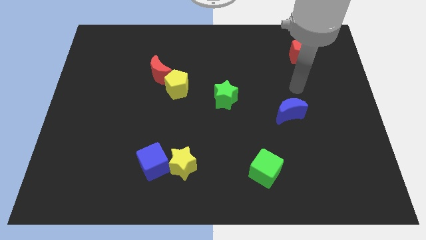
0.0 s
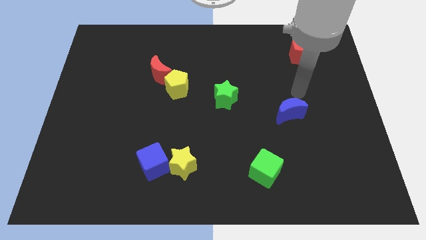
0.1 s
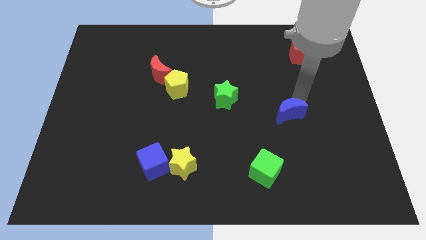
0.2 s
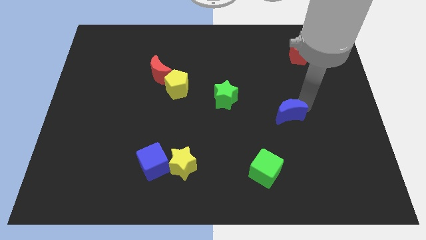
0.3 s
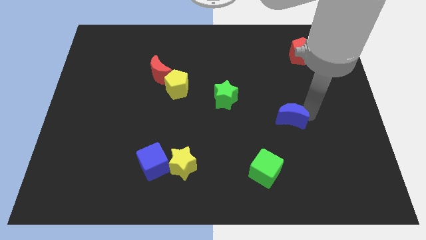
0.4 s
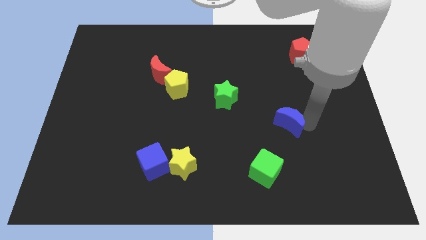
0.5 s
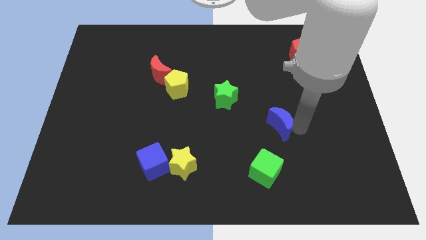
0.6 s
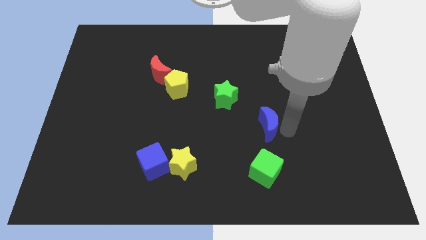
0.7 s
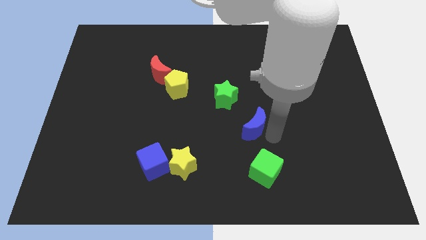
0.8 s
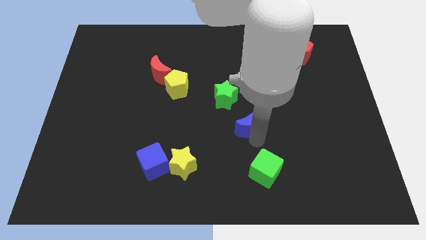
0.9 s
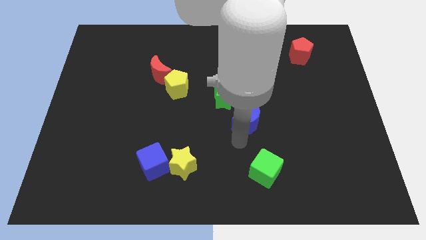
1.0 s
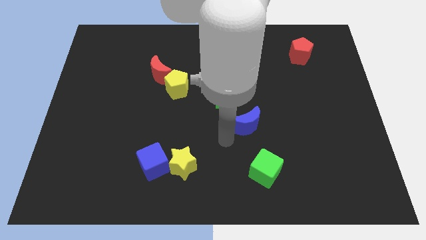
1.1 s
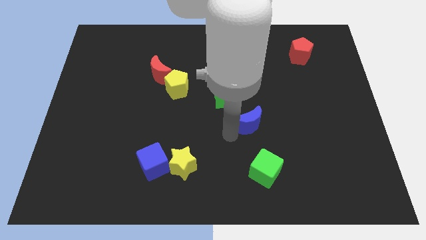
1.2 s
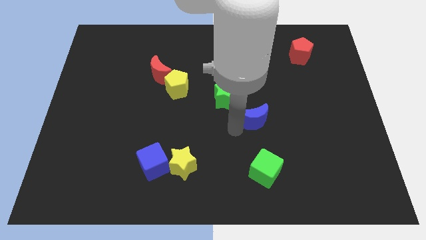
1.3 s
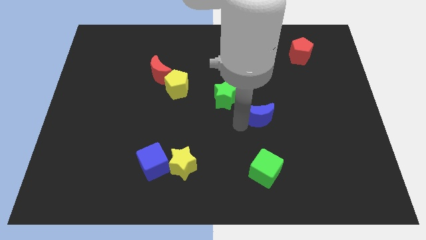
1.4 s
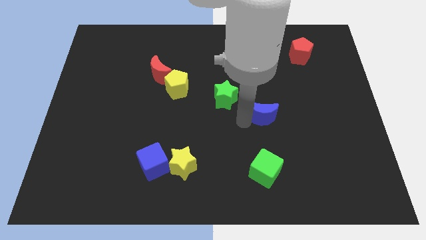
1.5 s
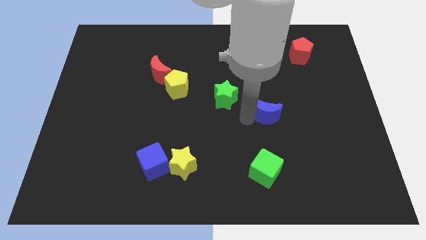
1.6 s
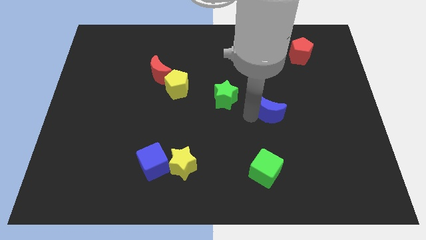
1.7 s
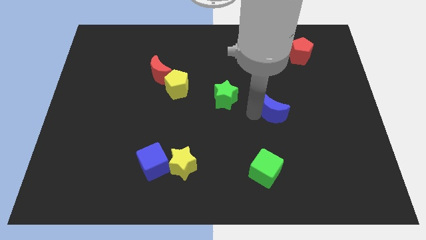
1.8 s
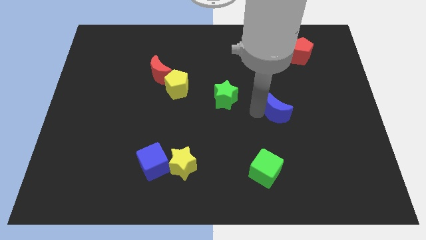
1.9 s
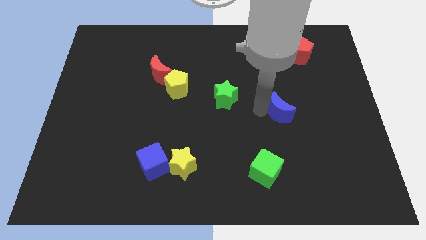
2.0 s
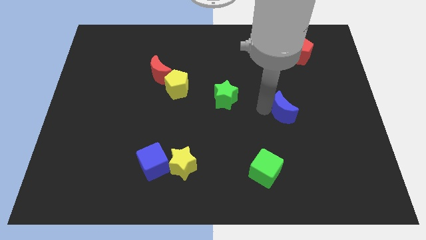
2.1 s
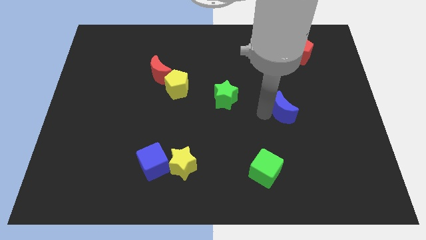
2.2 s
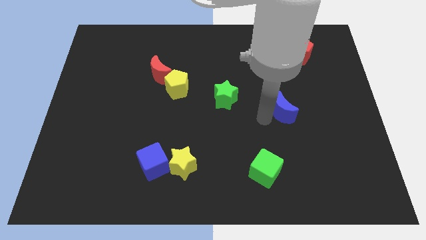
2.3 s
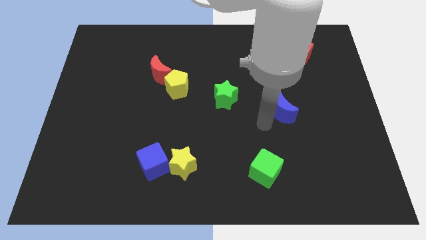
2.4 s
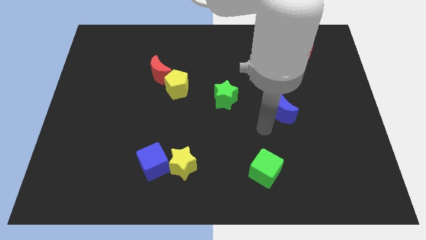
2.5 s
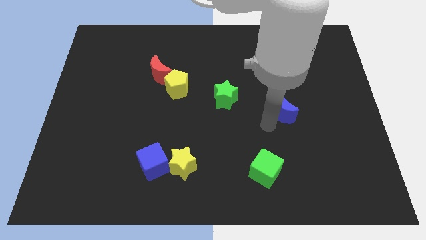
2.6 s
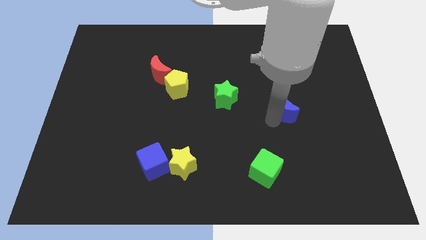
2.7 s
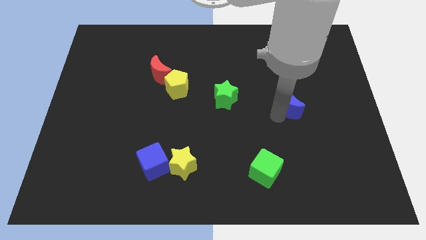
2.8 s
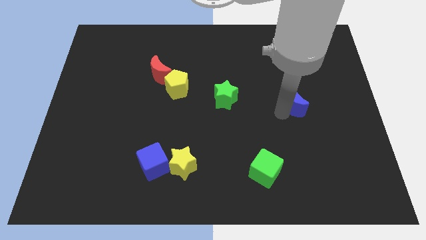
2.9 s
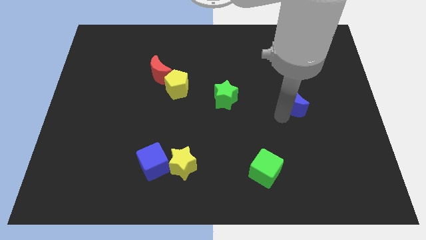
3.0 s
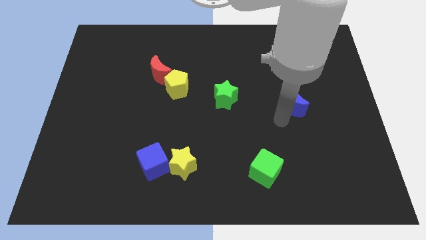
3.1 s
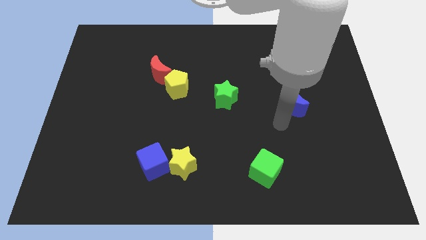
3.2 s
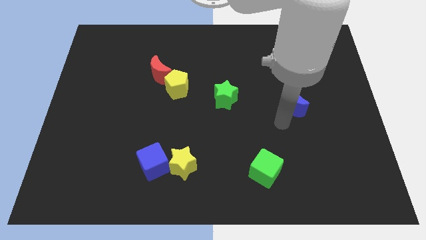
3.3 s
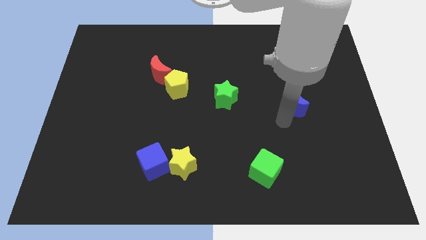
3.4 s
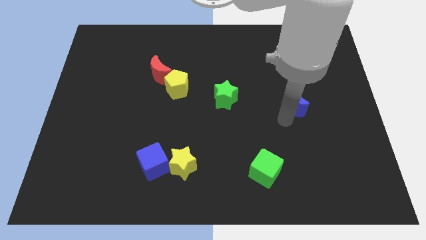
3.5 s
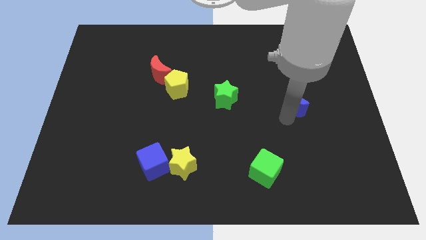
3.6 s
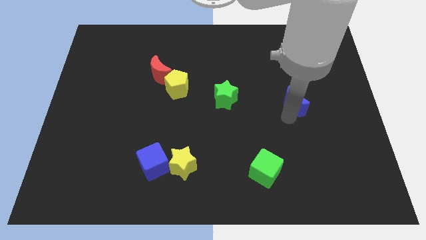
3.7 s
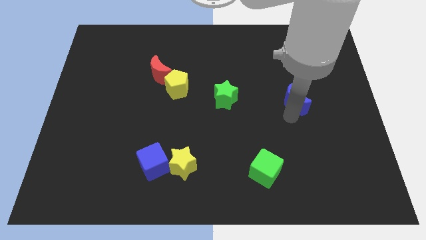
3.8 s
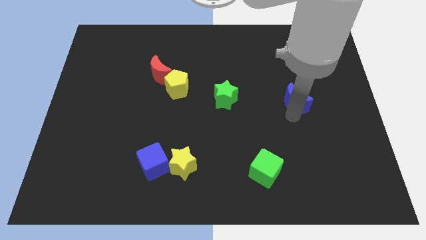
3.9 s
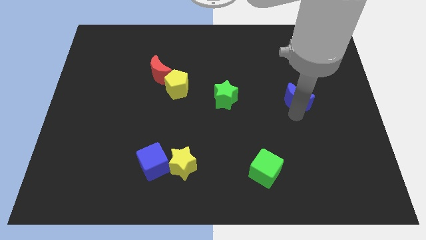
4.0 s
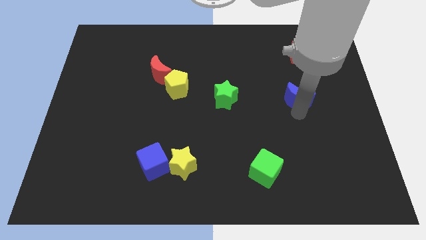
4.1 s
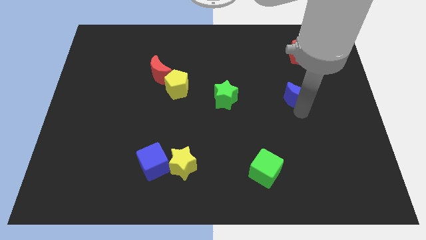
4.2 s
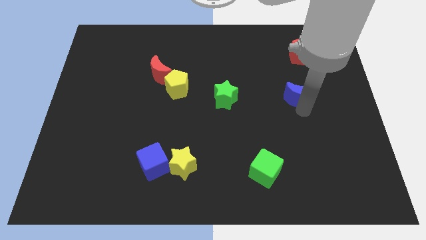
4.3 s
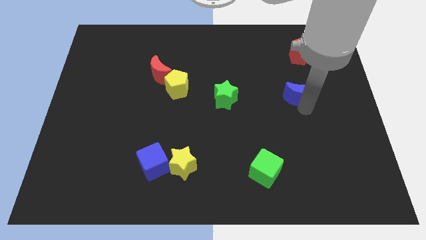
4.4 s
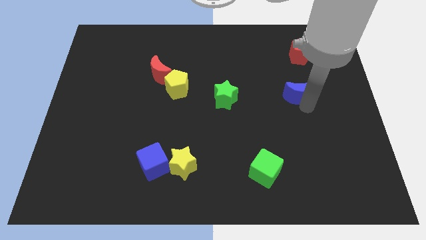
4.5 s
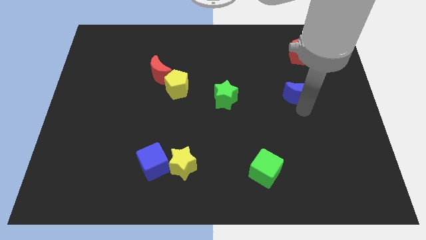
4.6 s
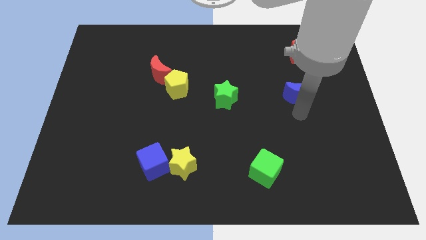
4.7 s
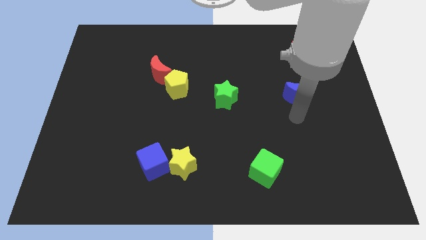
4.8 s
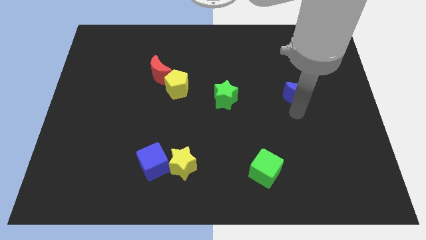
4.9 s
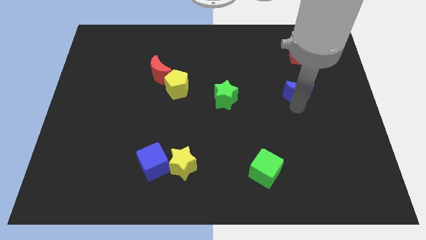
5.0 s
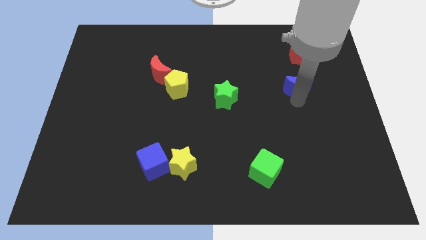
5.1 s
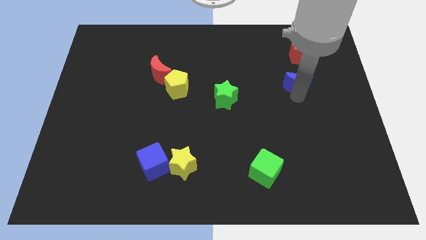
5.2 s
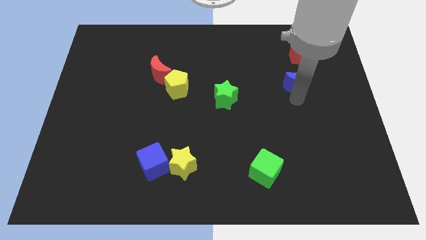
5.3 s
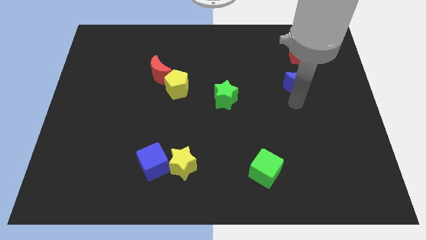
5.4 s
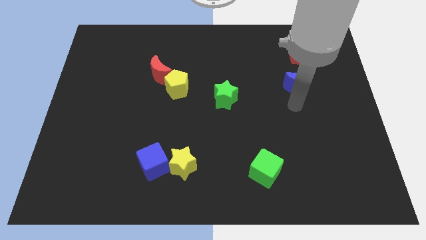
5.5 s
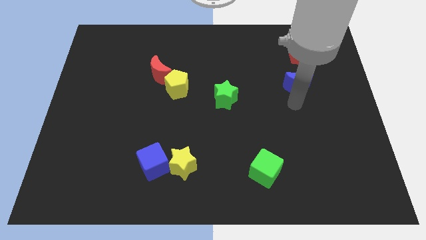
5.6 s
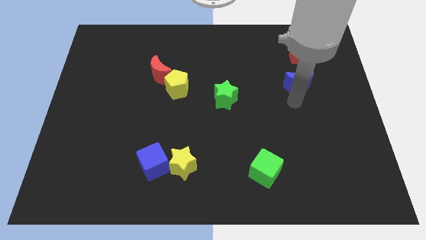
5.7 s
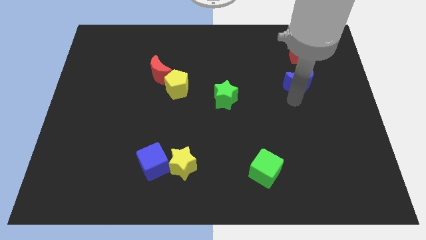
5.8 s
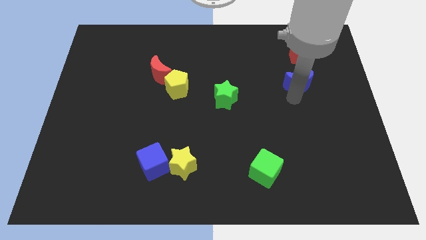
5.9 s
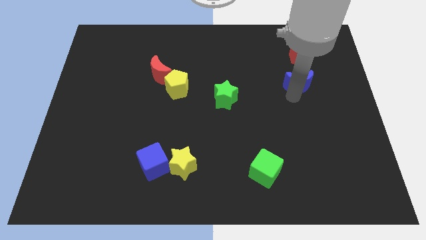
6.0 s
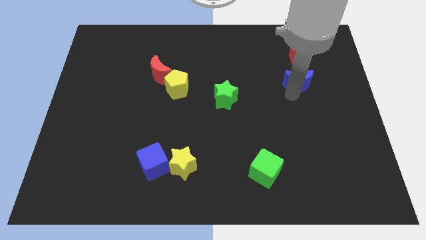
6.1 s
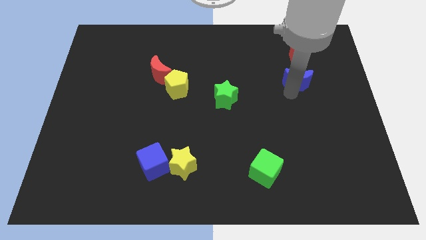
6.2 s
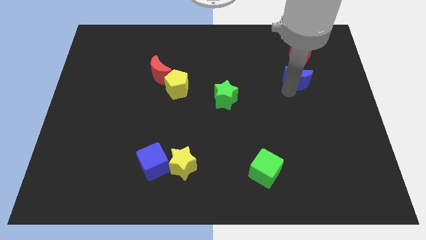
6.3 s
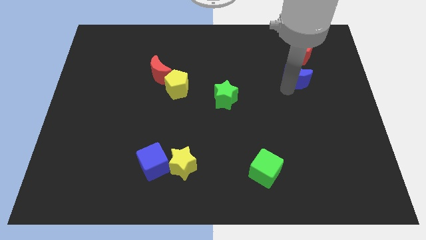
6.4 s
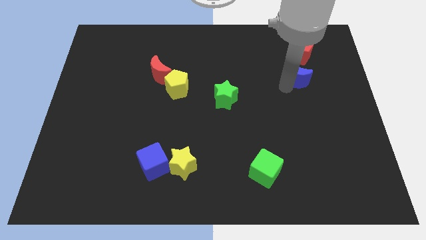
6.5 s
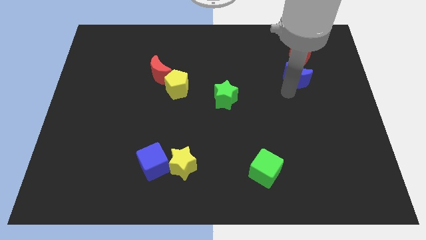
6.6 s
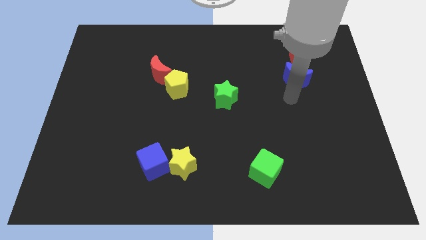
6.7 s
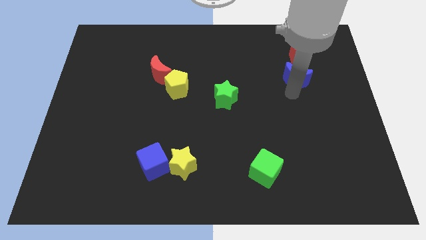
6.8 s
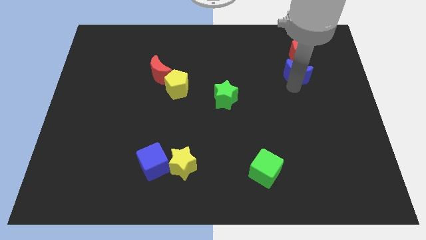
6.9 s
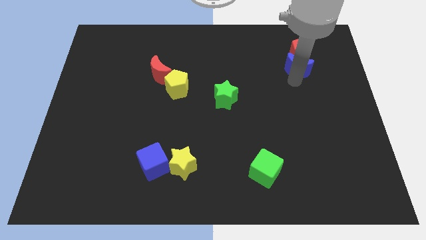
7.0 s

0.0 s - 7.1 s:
put the blue moon to the red pentagon

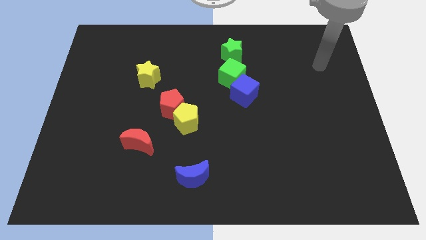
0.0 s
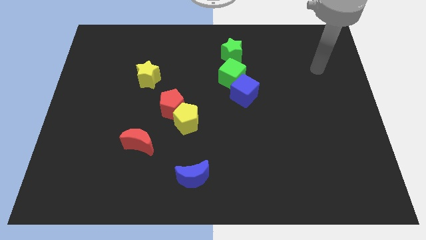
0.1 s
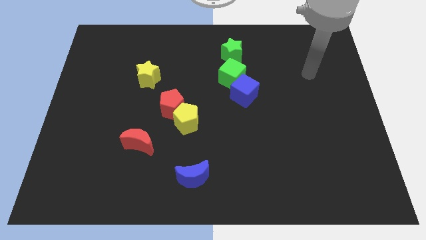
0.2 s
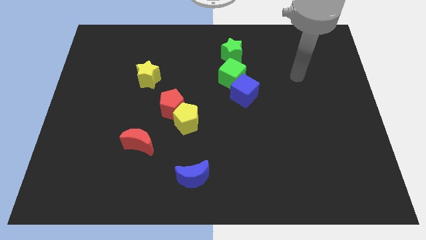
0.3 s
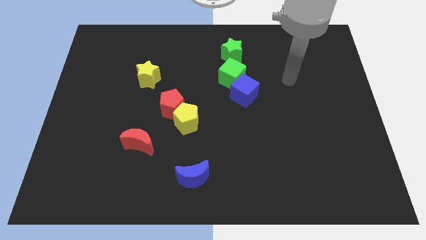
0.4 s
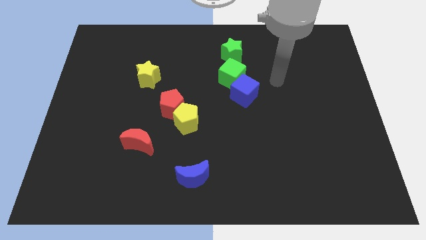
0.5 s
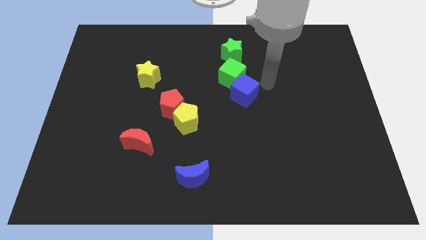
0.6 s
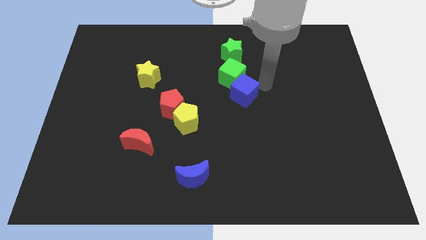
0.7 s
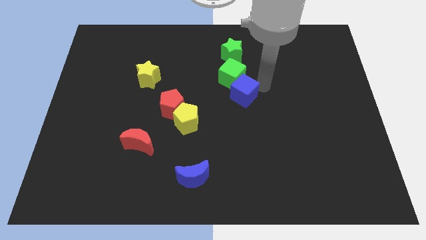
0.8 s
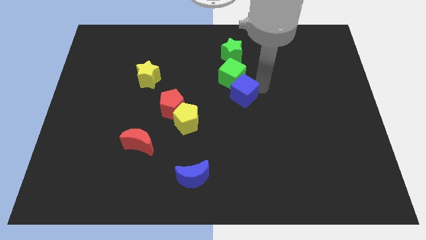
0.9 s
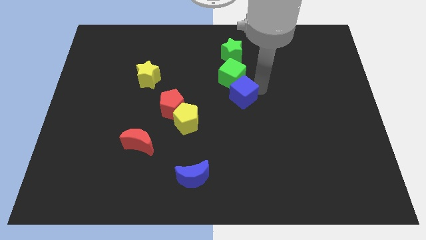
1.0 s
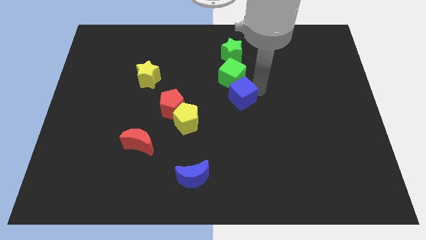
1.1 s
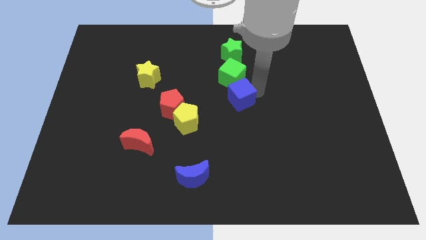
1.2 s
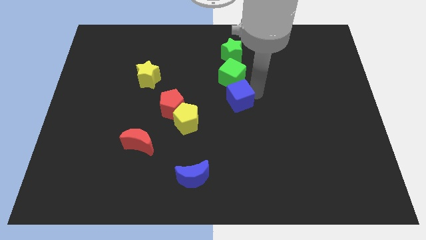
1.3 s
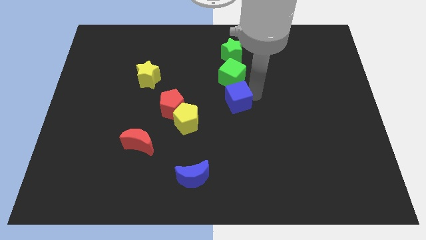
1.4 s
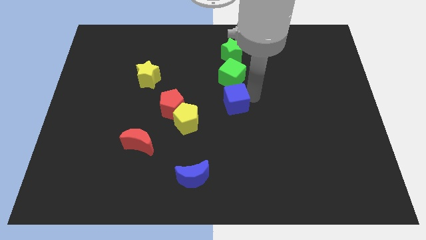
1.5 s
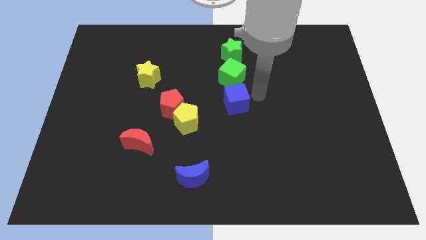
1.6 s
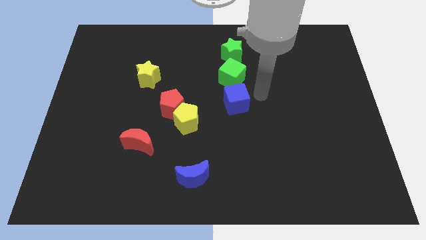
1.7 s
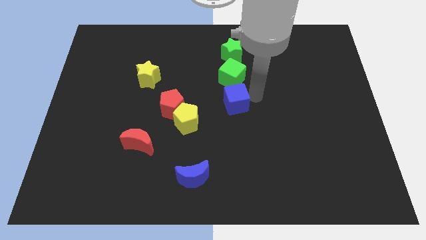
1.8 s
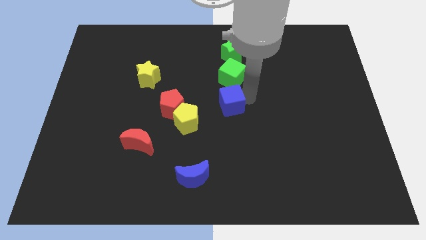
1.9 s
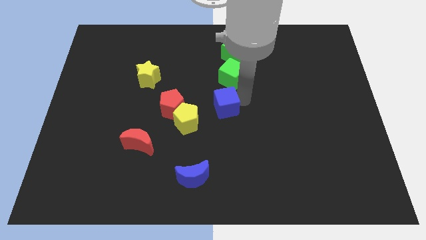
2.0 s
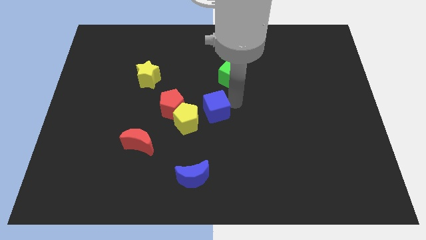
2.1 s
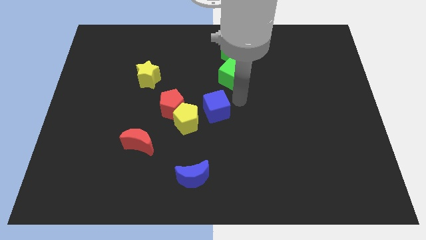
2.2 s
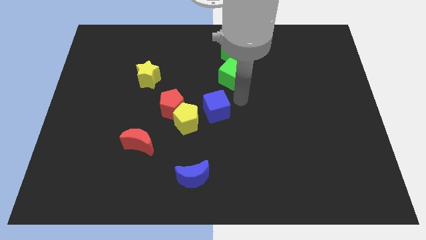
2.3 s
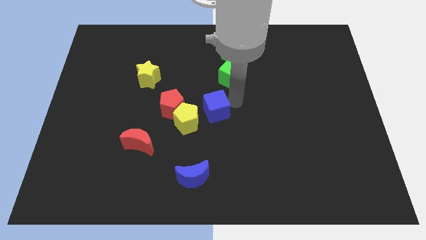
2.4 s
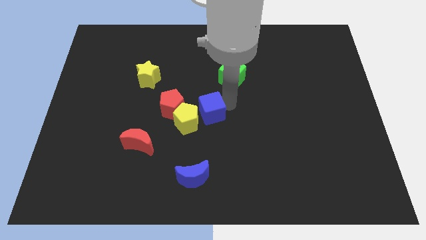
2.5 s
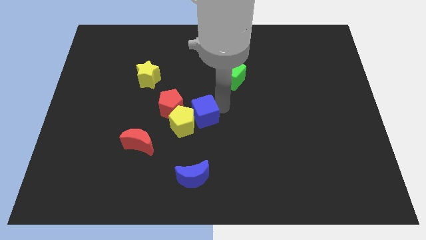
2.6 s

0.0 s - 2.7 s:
push the blue cube to the yellow pentagon
